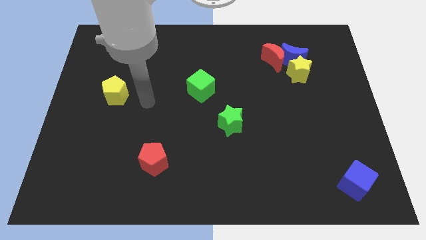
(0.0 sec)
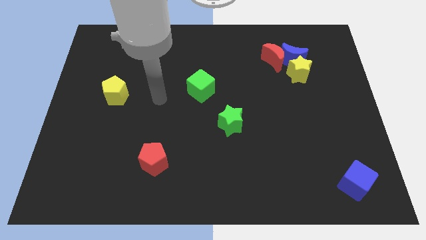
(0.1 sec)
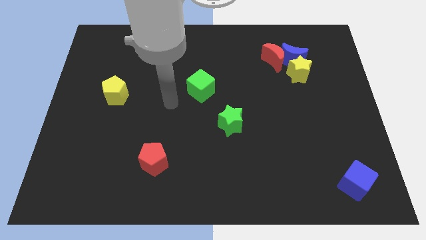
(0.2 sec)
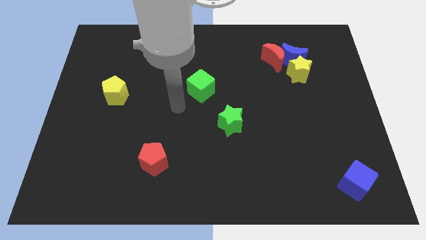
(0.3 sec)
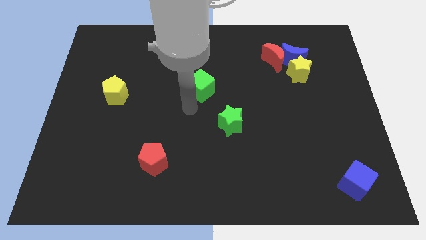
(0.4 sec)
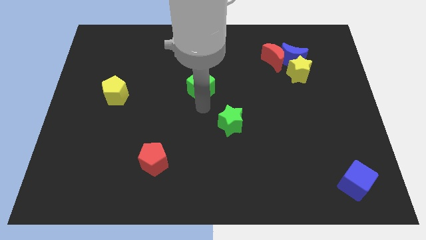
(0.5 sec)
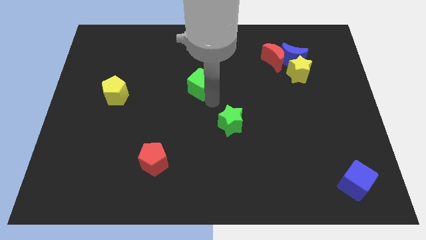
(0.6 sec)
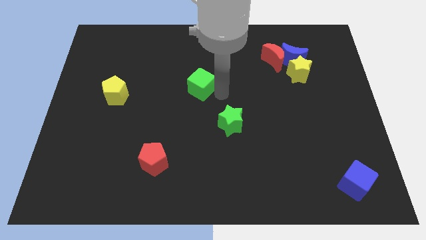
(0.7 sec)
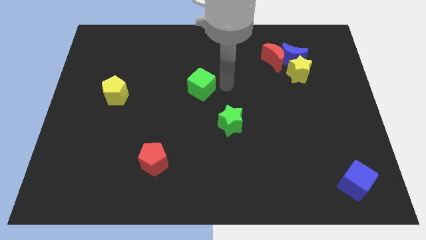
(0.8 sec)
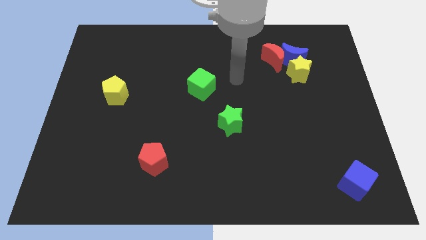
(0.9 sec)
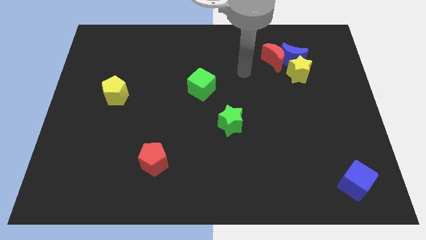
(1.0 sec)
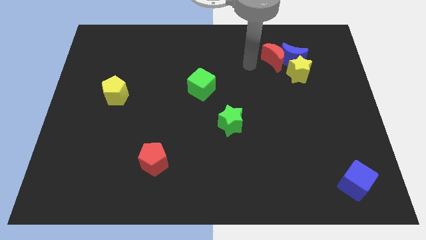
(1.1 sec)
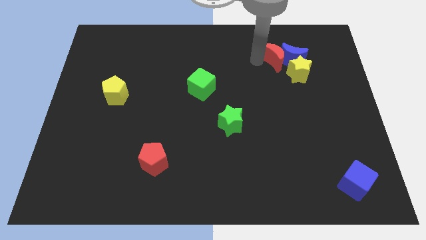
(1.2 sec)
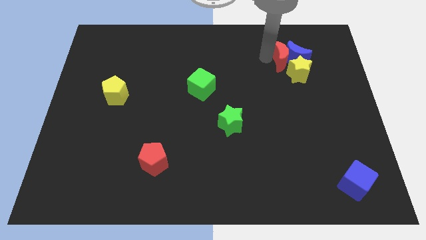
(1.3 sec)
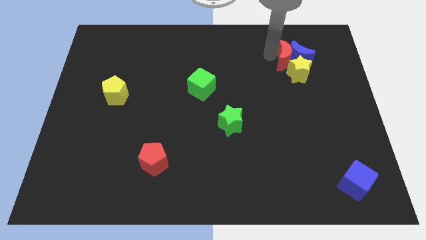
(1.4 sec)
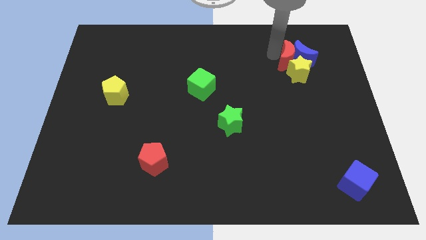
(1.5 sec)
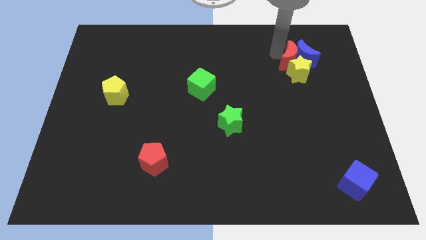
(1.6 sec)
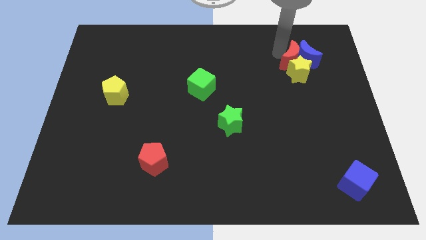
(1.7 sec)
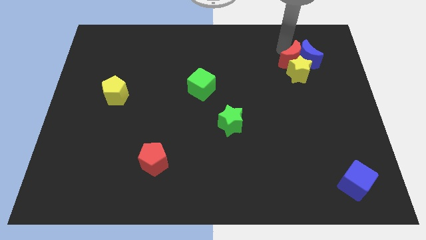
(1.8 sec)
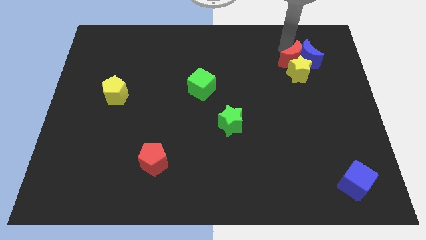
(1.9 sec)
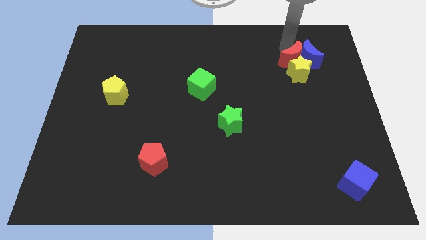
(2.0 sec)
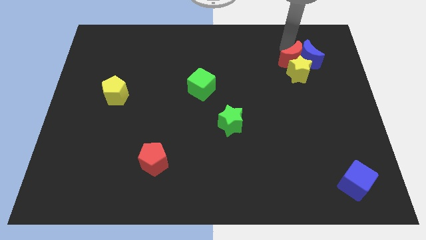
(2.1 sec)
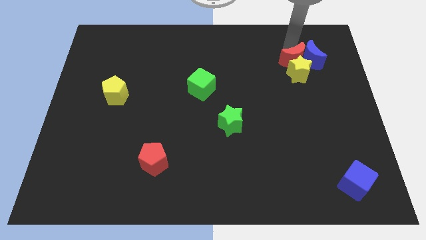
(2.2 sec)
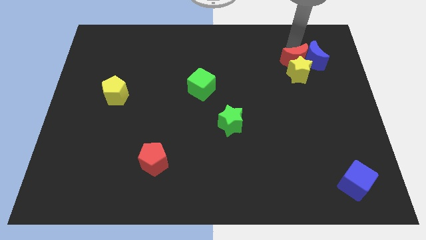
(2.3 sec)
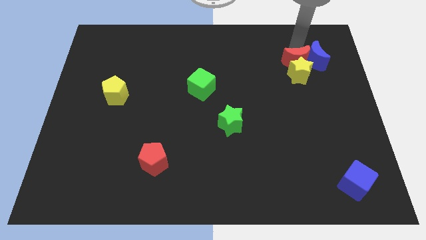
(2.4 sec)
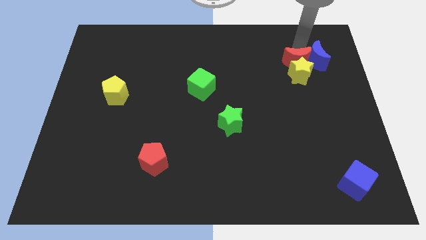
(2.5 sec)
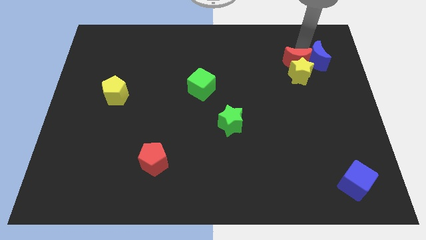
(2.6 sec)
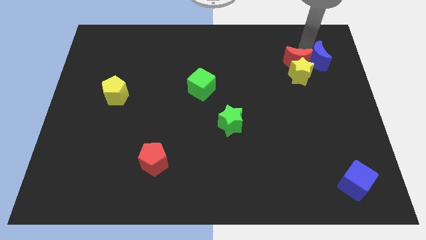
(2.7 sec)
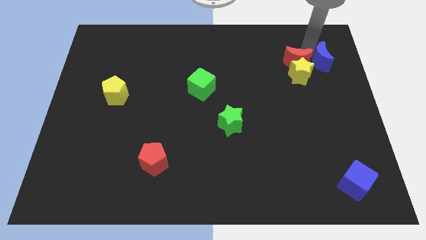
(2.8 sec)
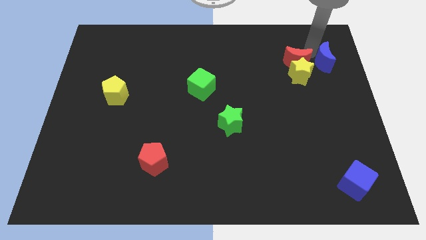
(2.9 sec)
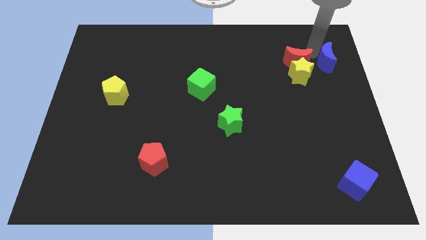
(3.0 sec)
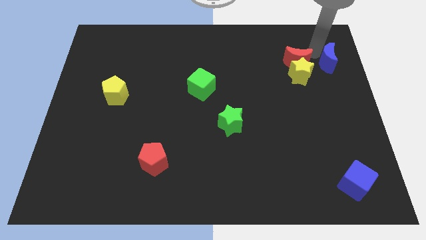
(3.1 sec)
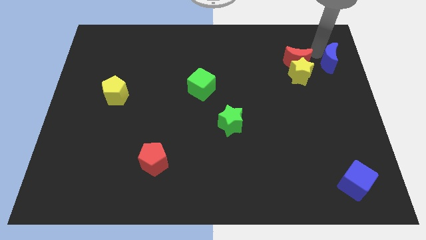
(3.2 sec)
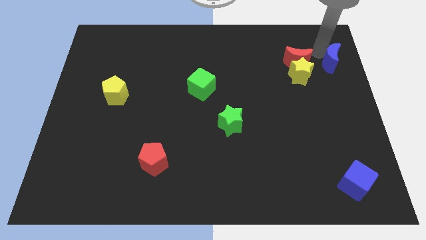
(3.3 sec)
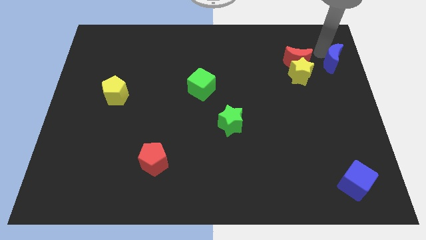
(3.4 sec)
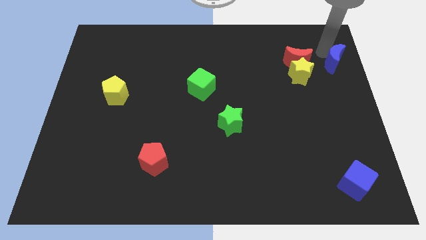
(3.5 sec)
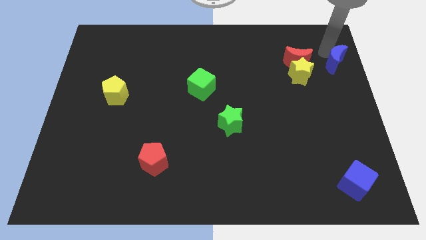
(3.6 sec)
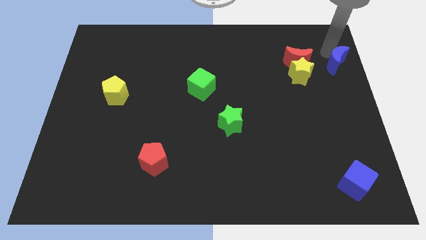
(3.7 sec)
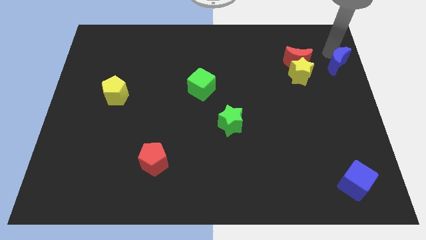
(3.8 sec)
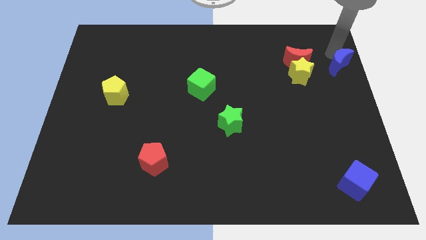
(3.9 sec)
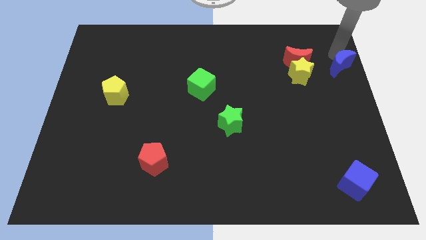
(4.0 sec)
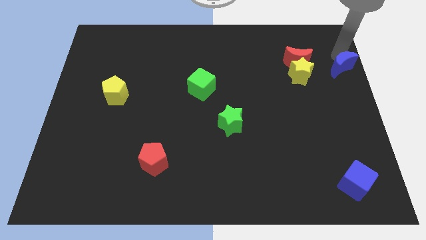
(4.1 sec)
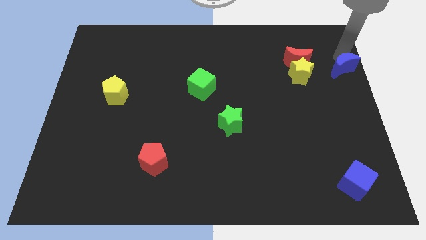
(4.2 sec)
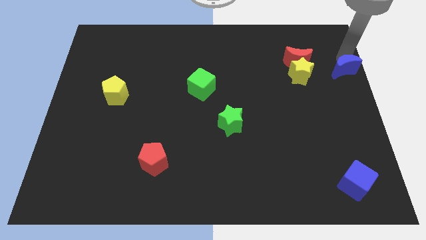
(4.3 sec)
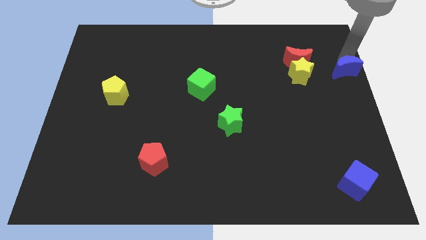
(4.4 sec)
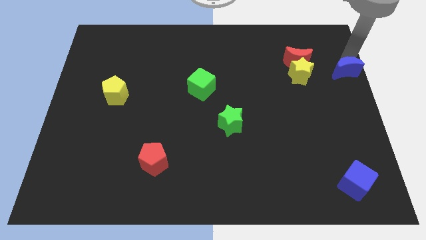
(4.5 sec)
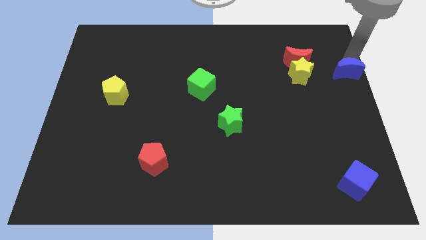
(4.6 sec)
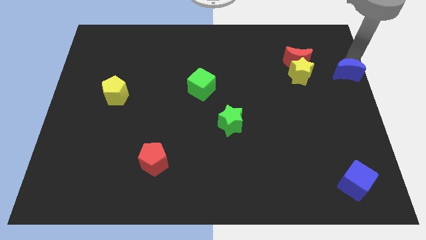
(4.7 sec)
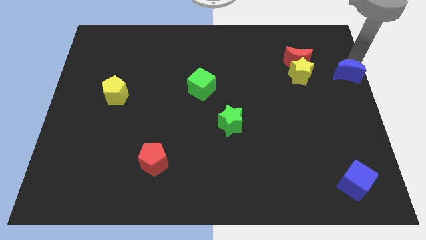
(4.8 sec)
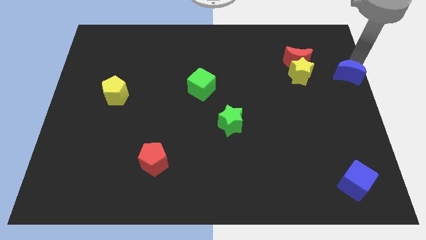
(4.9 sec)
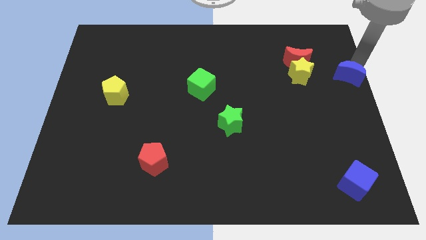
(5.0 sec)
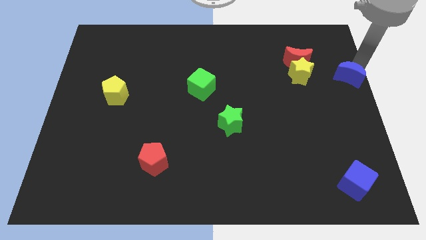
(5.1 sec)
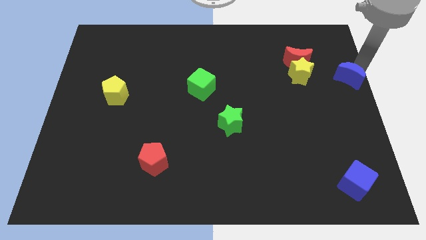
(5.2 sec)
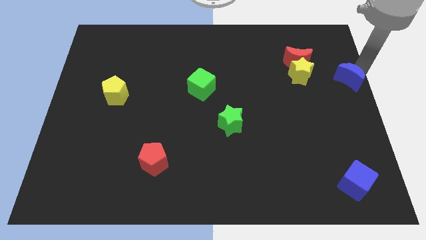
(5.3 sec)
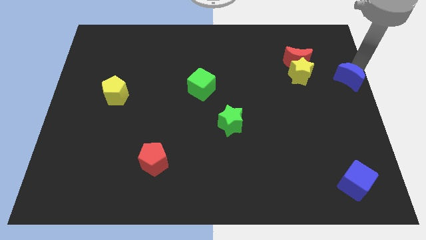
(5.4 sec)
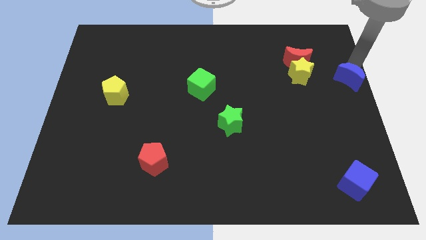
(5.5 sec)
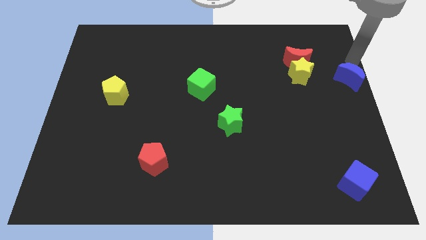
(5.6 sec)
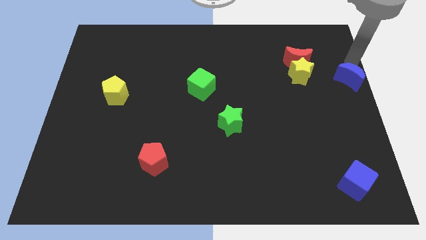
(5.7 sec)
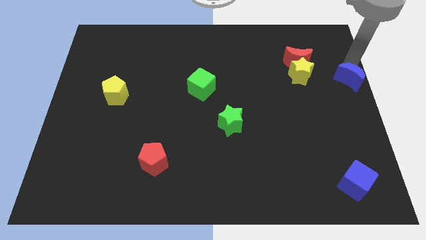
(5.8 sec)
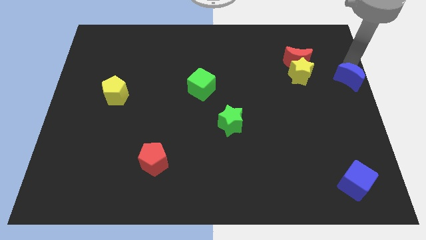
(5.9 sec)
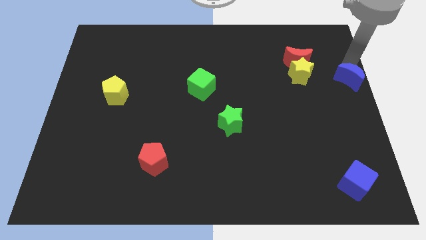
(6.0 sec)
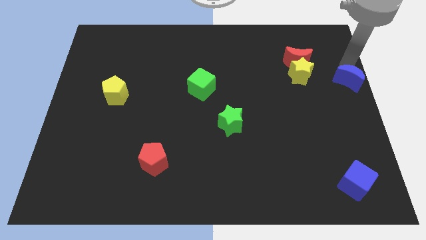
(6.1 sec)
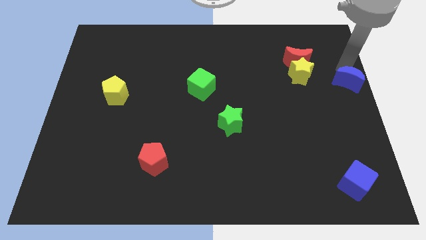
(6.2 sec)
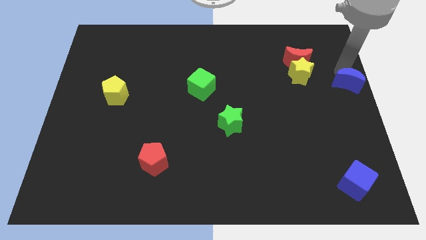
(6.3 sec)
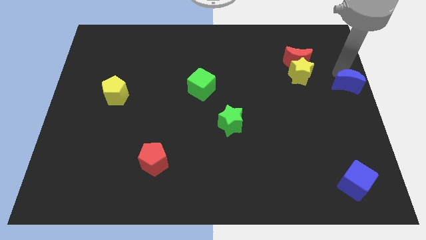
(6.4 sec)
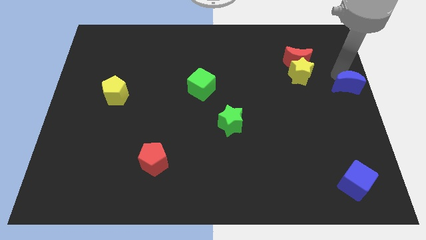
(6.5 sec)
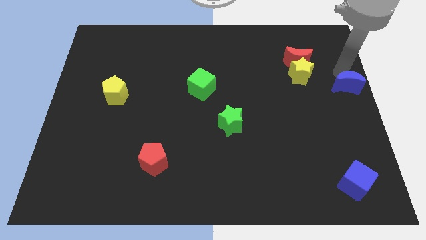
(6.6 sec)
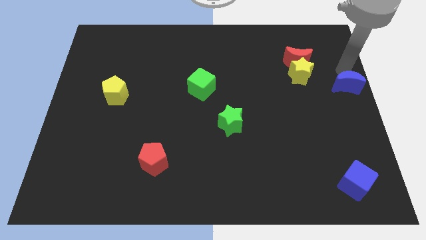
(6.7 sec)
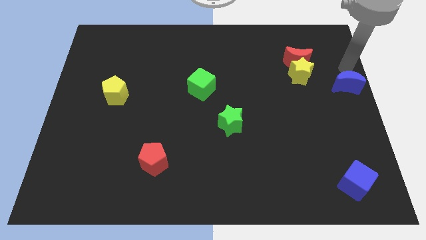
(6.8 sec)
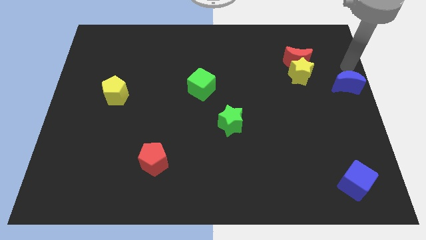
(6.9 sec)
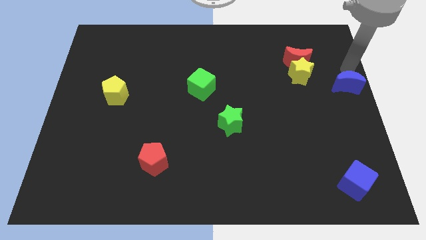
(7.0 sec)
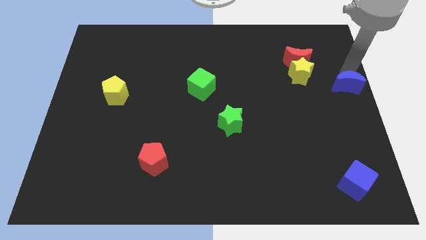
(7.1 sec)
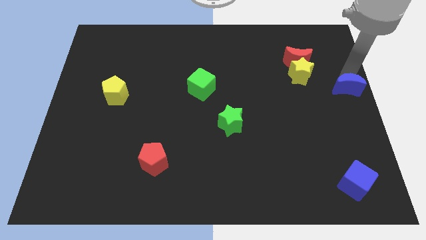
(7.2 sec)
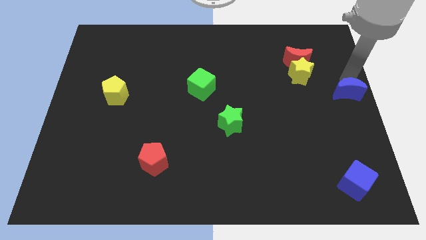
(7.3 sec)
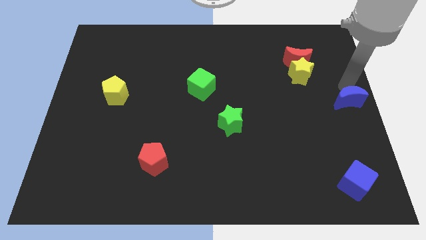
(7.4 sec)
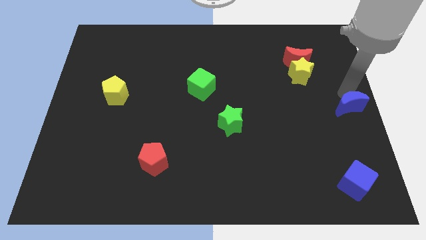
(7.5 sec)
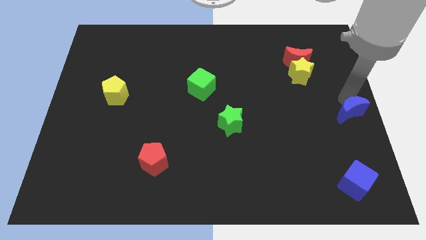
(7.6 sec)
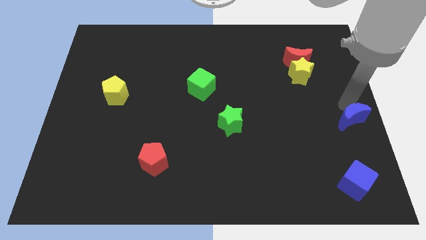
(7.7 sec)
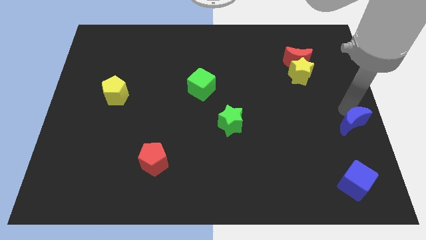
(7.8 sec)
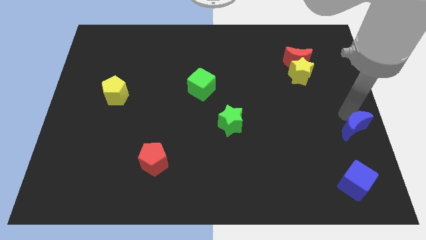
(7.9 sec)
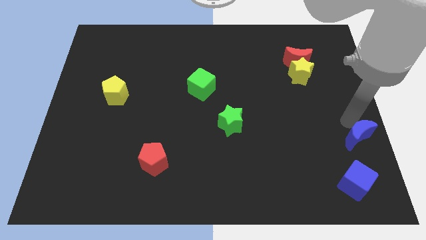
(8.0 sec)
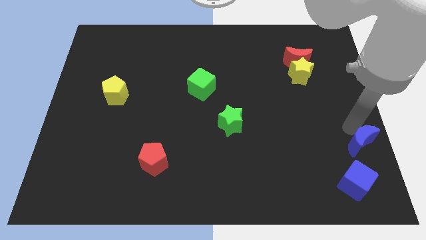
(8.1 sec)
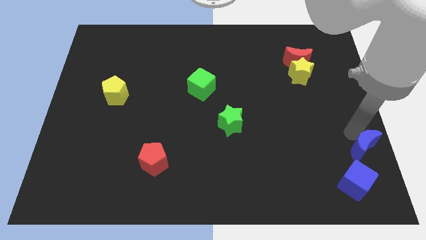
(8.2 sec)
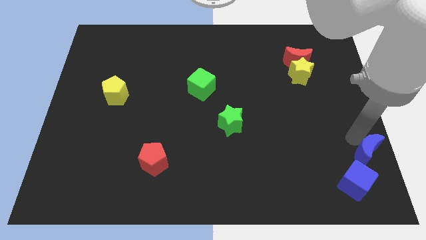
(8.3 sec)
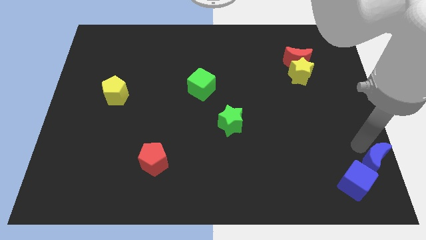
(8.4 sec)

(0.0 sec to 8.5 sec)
slide the blue moon to the lower right corner
